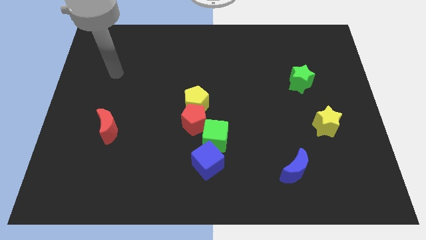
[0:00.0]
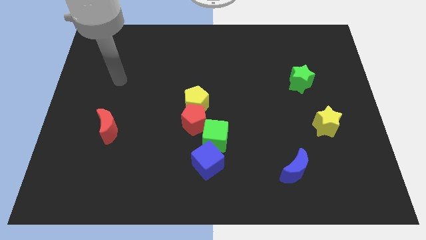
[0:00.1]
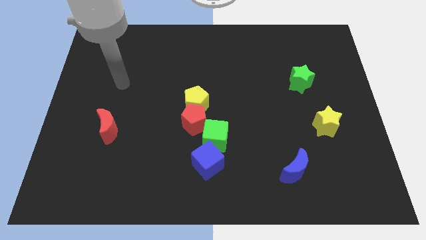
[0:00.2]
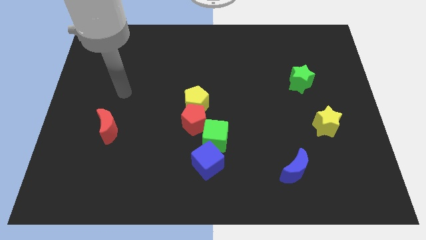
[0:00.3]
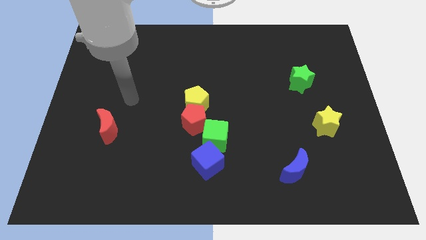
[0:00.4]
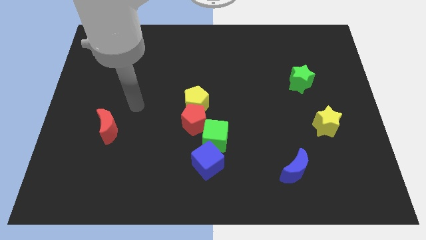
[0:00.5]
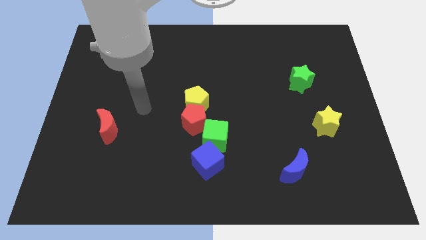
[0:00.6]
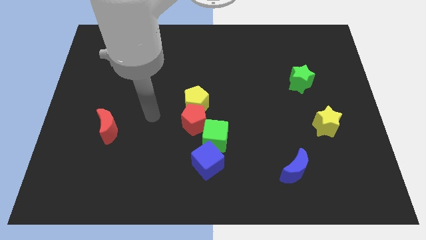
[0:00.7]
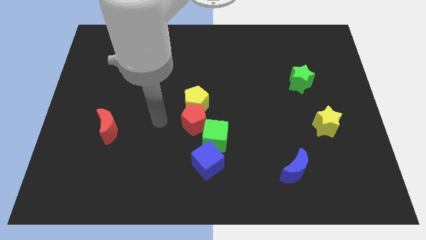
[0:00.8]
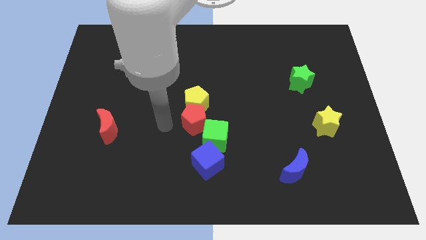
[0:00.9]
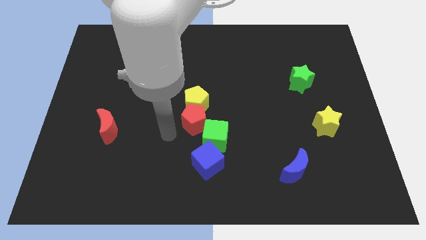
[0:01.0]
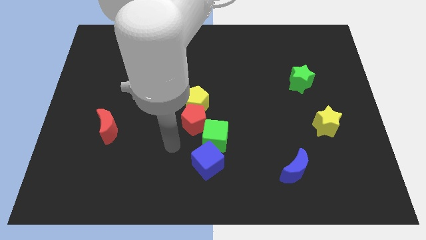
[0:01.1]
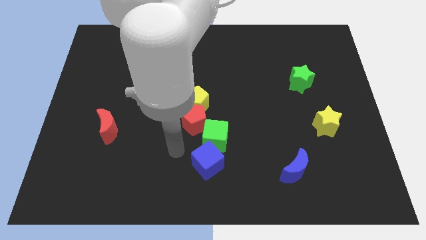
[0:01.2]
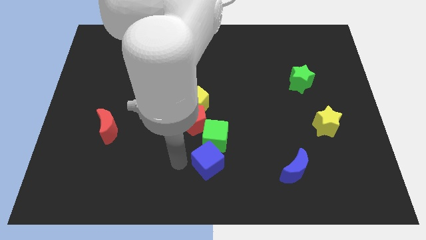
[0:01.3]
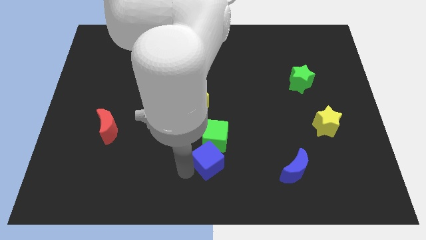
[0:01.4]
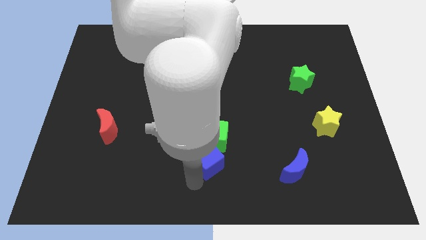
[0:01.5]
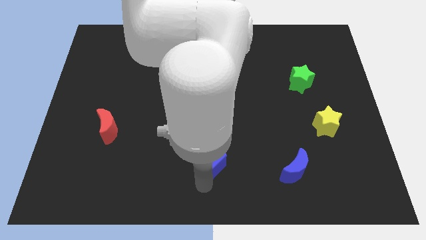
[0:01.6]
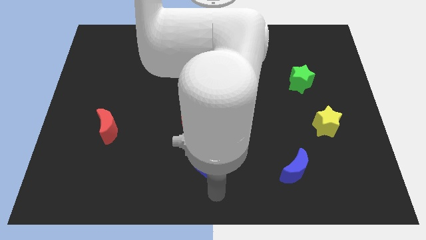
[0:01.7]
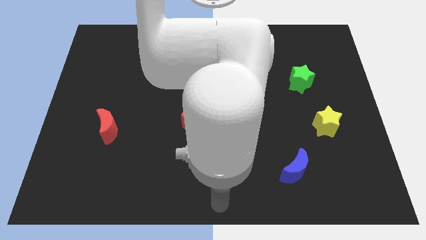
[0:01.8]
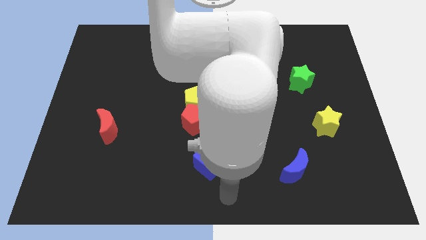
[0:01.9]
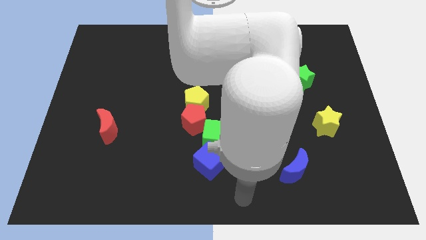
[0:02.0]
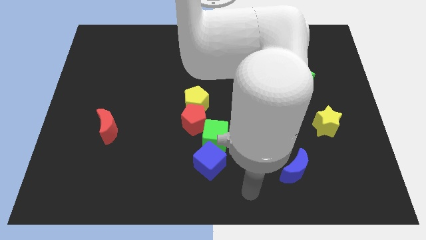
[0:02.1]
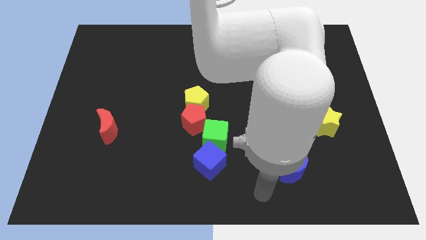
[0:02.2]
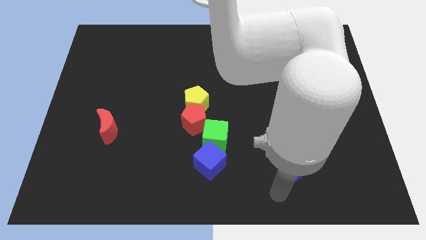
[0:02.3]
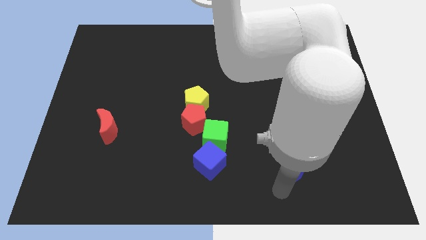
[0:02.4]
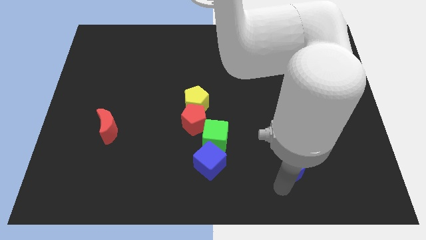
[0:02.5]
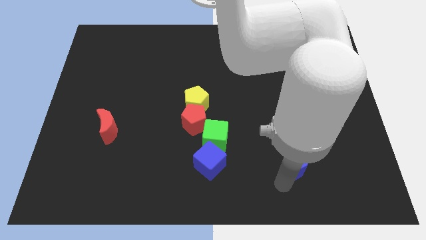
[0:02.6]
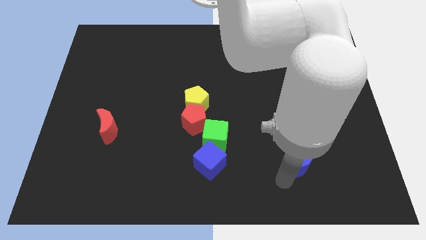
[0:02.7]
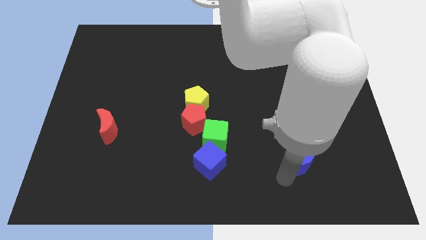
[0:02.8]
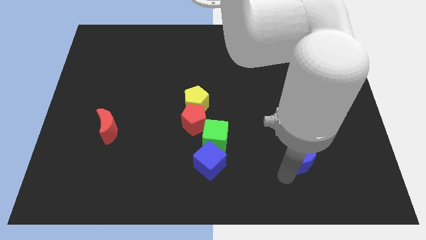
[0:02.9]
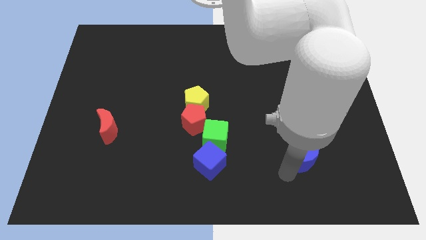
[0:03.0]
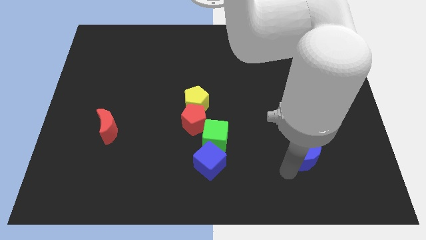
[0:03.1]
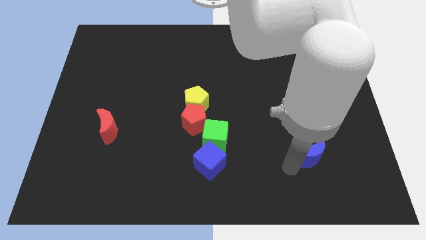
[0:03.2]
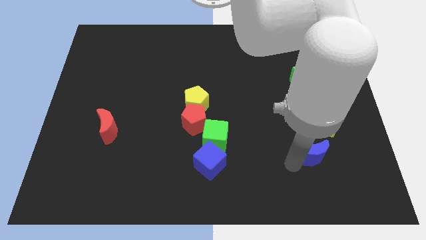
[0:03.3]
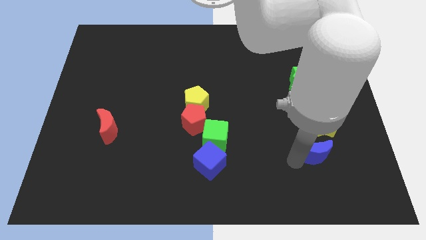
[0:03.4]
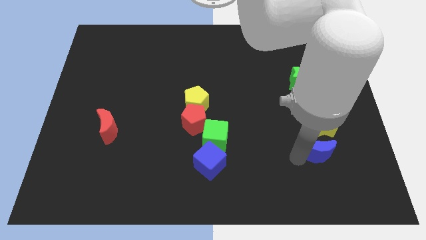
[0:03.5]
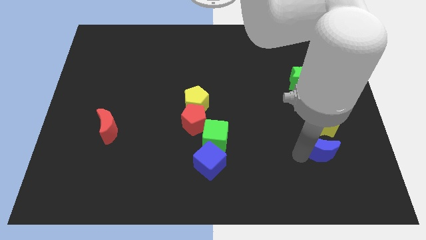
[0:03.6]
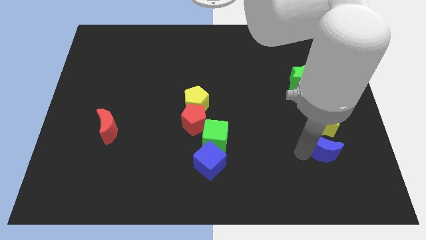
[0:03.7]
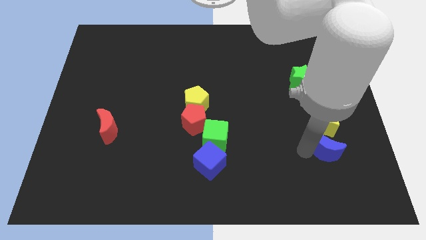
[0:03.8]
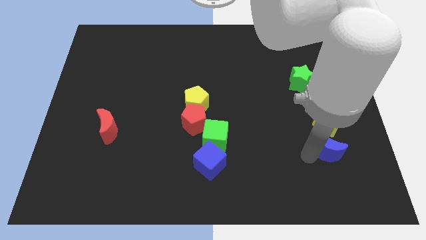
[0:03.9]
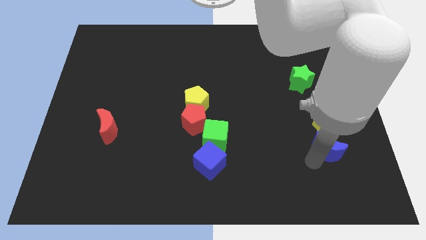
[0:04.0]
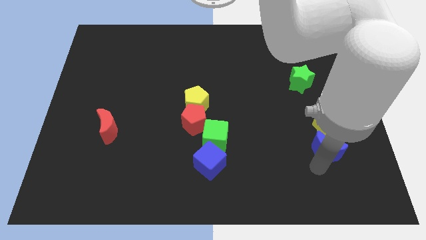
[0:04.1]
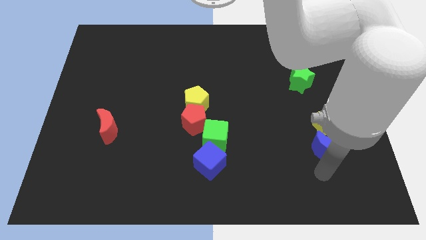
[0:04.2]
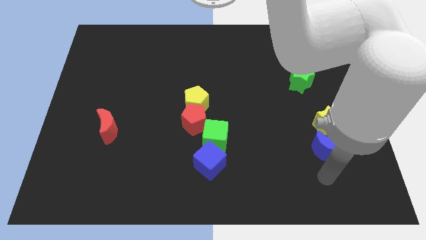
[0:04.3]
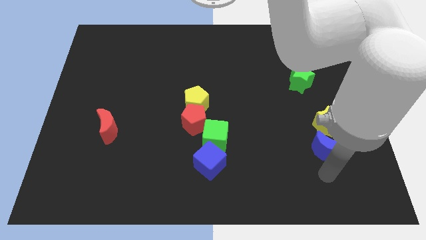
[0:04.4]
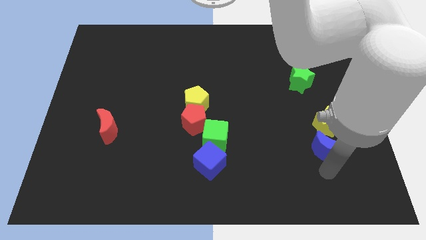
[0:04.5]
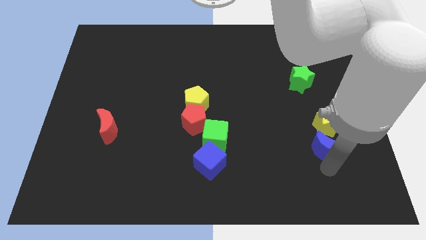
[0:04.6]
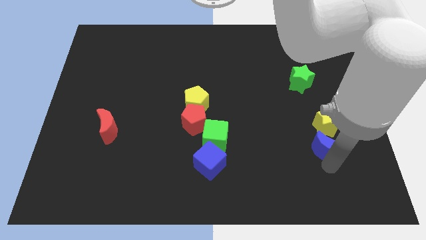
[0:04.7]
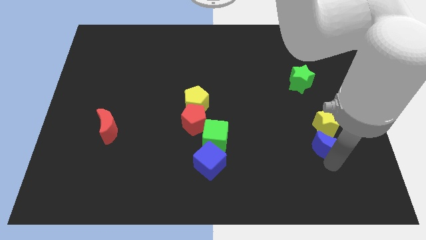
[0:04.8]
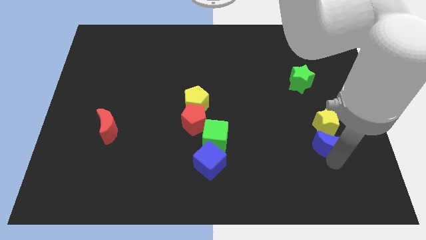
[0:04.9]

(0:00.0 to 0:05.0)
move the blue moon close to the yellow star

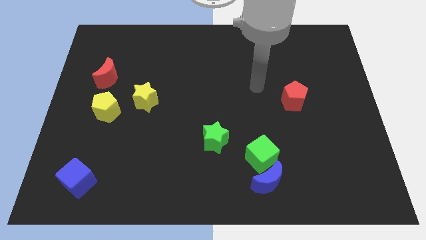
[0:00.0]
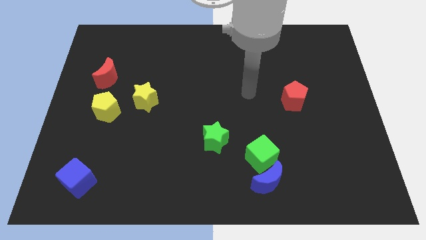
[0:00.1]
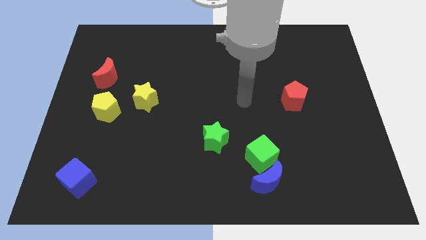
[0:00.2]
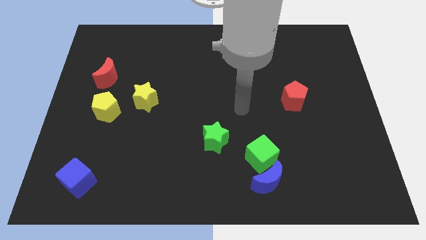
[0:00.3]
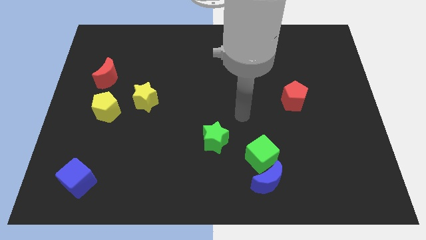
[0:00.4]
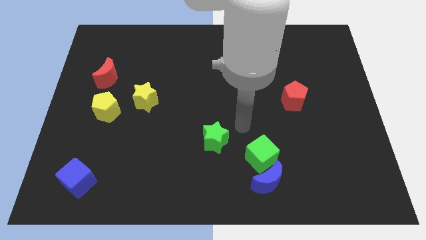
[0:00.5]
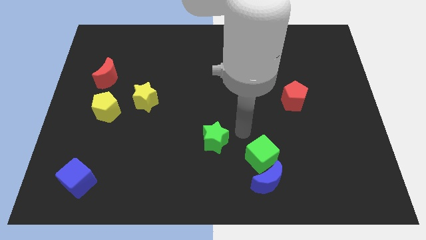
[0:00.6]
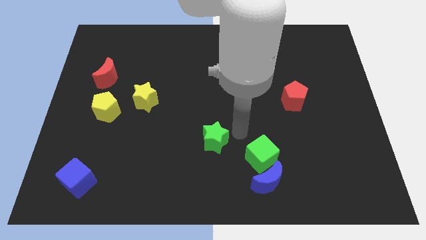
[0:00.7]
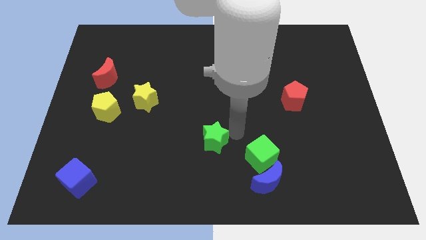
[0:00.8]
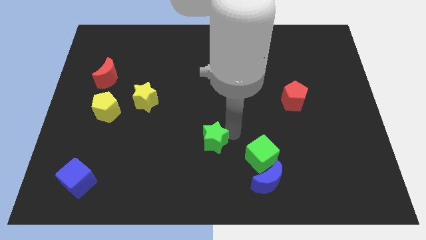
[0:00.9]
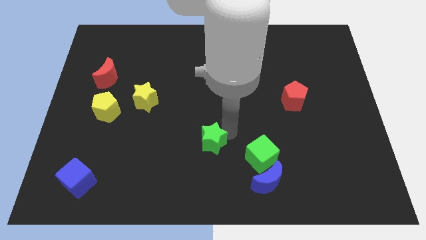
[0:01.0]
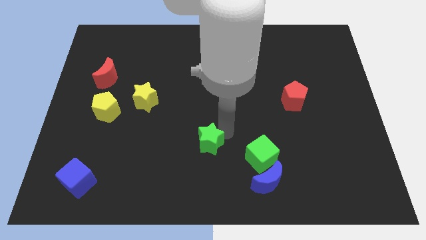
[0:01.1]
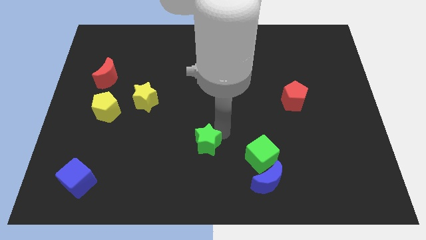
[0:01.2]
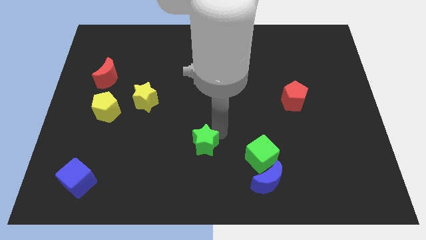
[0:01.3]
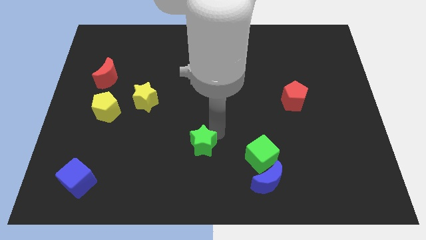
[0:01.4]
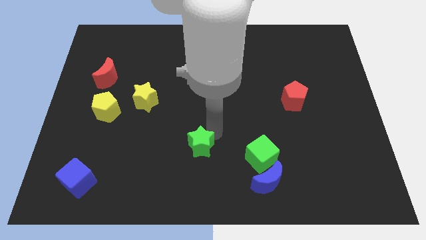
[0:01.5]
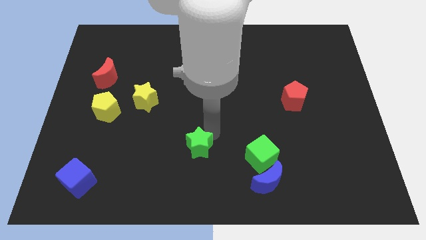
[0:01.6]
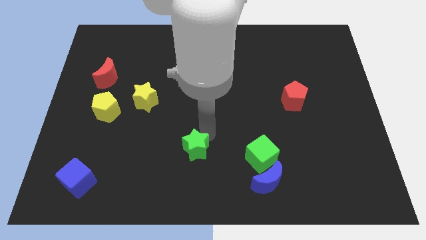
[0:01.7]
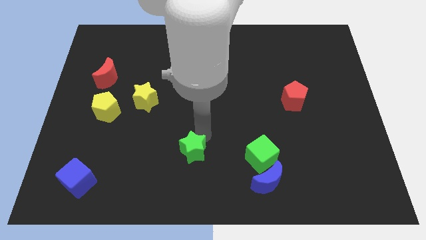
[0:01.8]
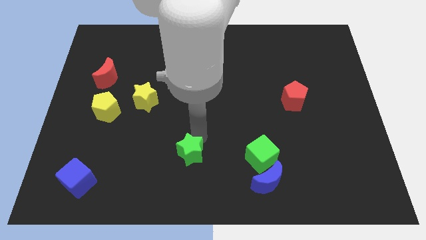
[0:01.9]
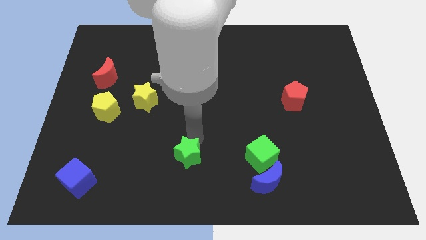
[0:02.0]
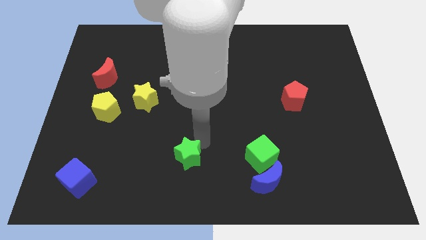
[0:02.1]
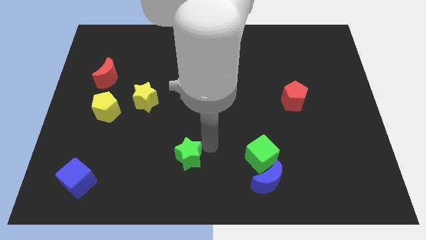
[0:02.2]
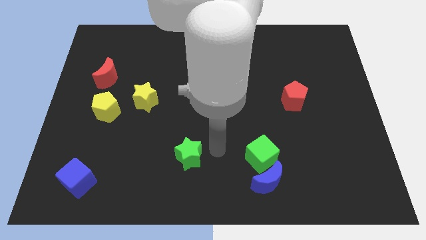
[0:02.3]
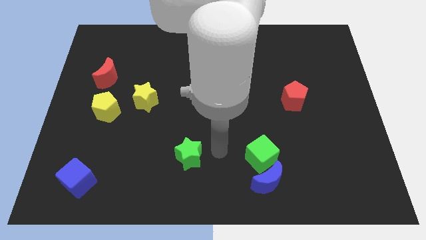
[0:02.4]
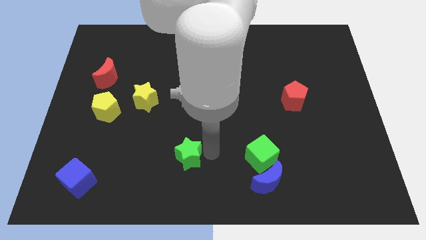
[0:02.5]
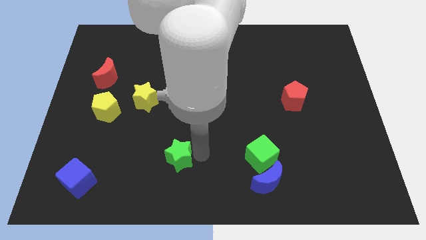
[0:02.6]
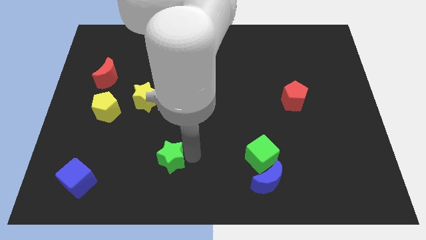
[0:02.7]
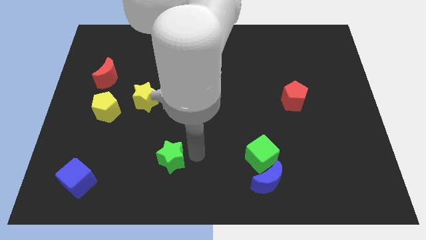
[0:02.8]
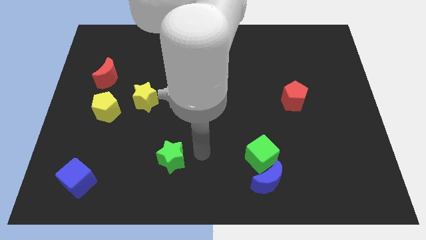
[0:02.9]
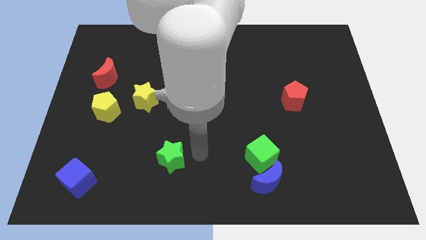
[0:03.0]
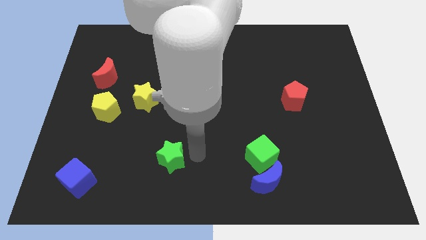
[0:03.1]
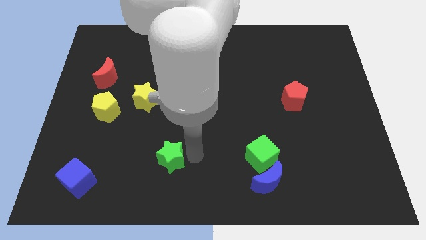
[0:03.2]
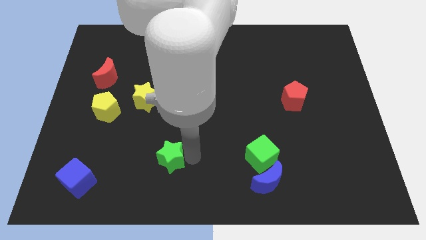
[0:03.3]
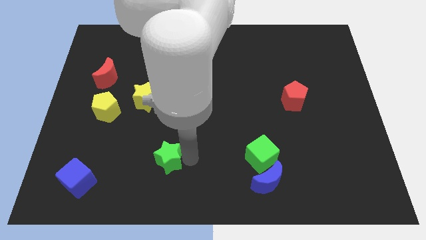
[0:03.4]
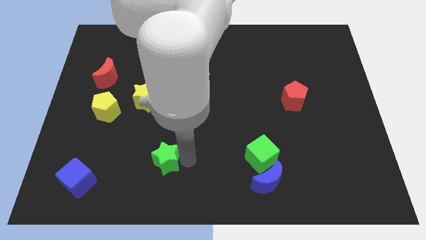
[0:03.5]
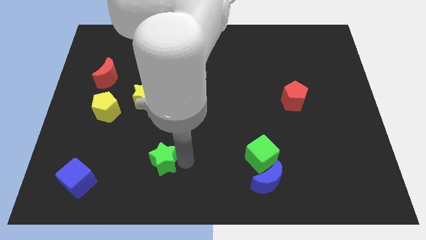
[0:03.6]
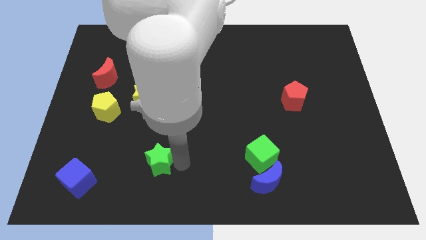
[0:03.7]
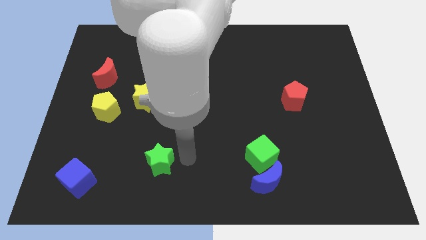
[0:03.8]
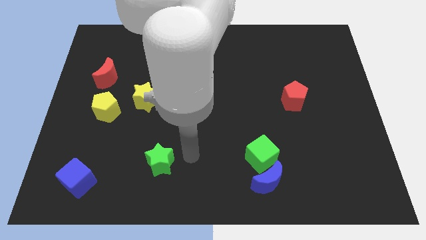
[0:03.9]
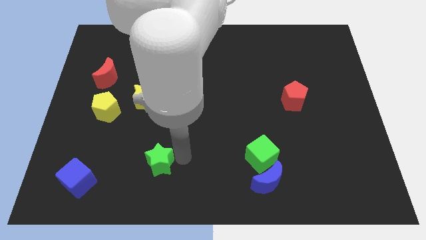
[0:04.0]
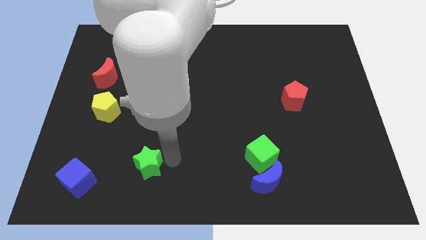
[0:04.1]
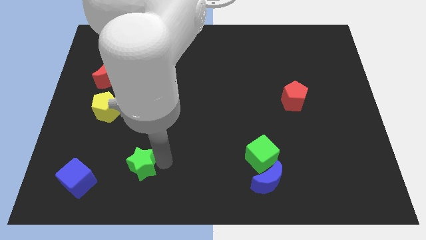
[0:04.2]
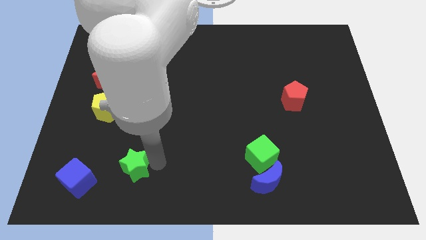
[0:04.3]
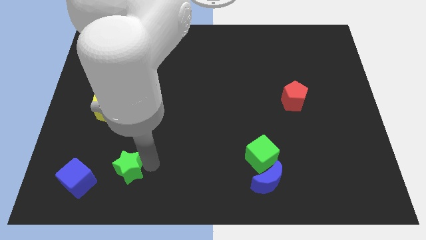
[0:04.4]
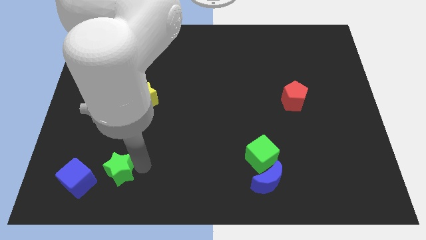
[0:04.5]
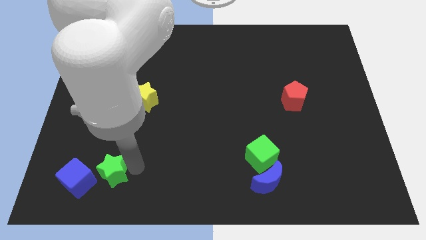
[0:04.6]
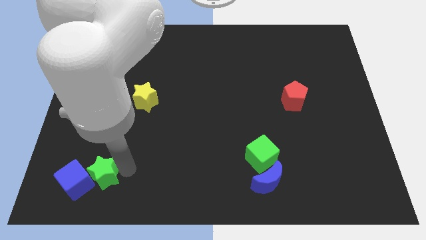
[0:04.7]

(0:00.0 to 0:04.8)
move the green star towards the blue cube
